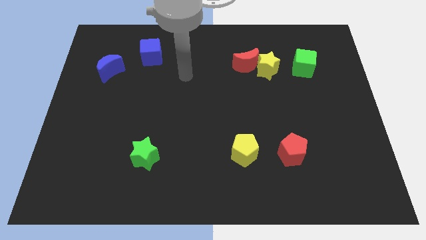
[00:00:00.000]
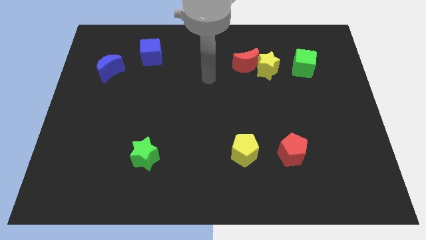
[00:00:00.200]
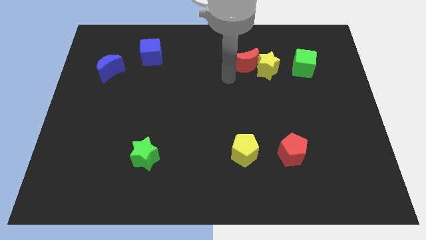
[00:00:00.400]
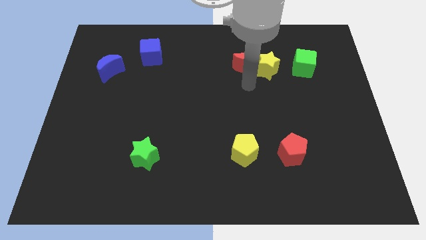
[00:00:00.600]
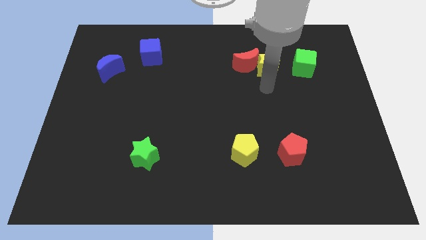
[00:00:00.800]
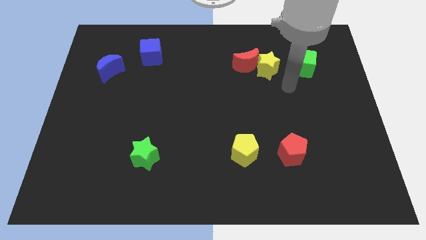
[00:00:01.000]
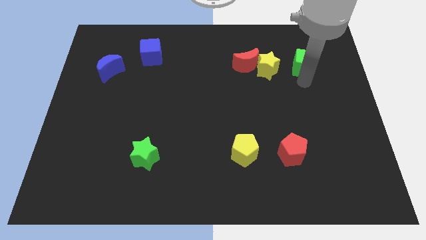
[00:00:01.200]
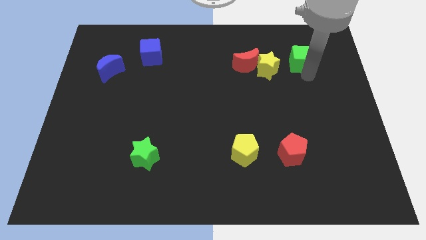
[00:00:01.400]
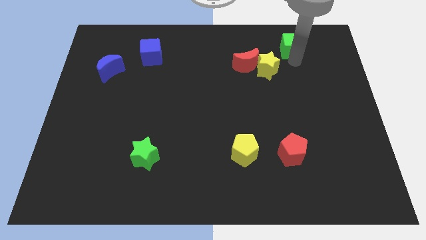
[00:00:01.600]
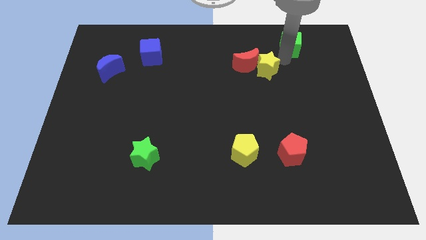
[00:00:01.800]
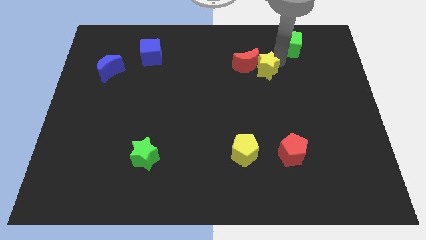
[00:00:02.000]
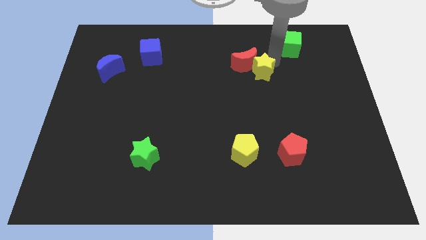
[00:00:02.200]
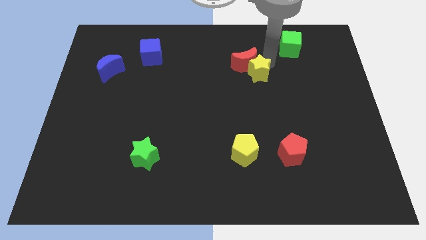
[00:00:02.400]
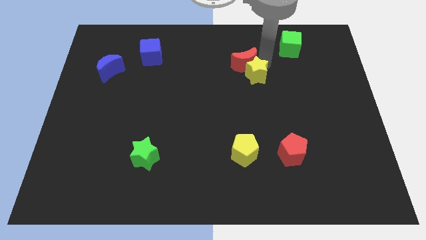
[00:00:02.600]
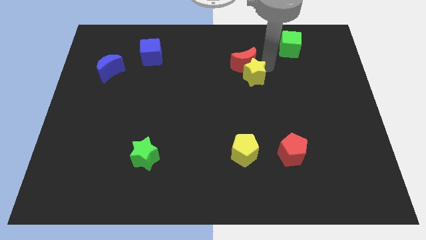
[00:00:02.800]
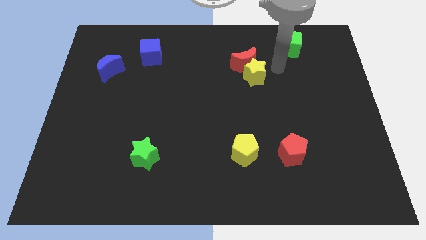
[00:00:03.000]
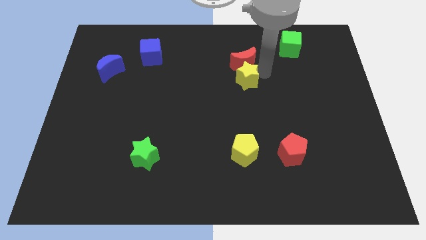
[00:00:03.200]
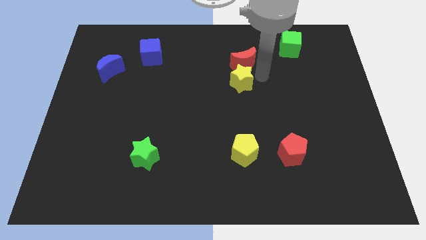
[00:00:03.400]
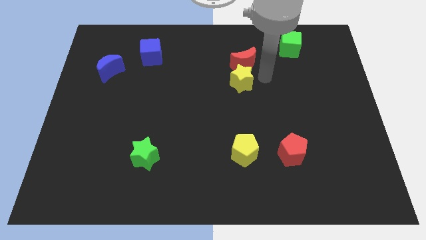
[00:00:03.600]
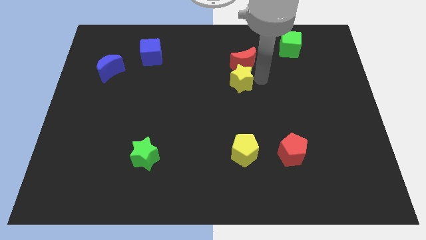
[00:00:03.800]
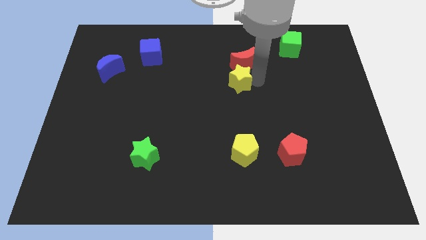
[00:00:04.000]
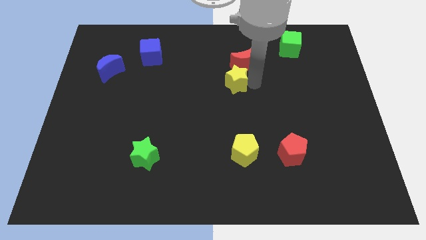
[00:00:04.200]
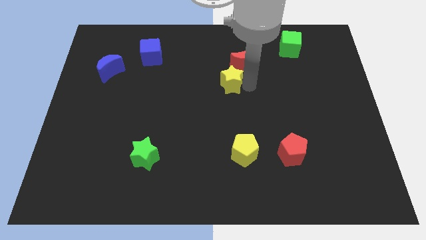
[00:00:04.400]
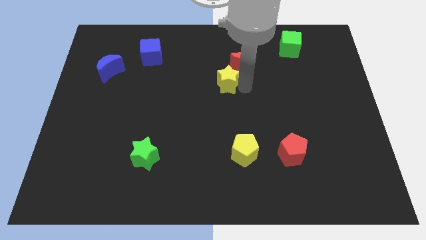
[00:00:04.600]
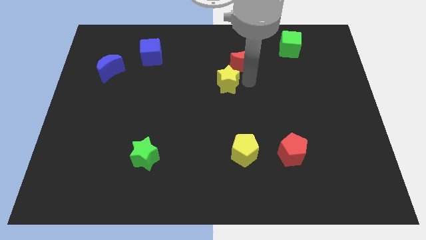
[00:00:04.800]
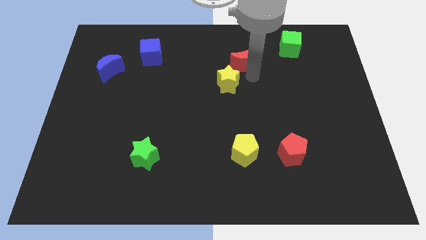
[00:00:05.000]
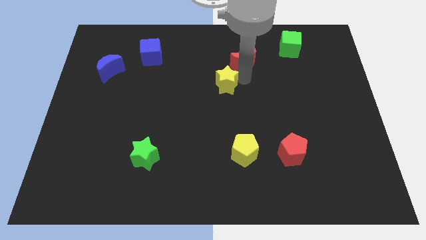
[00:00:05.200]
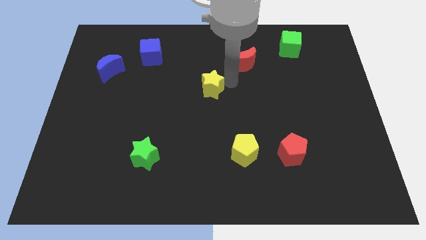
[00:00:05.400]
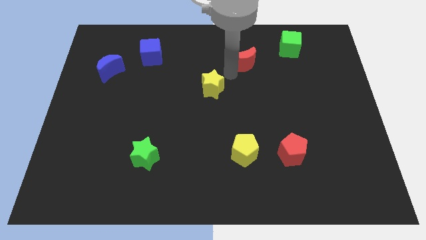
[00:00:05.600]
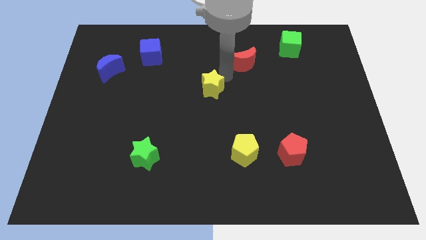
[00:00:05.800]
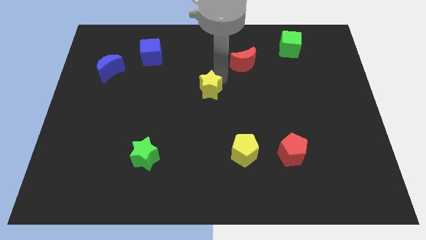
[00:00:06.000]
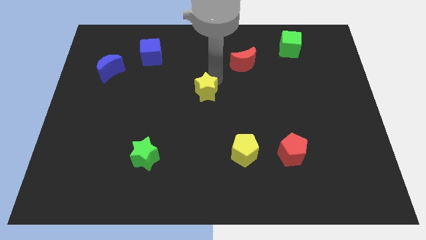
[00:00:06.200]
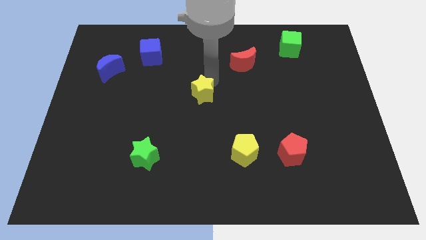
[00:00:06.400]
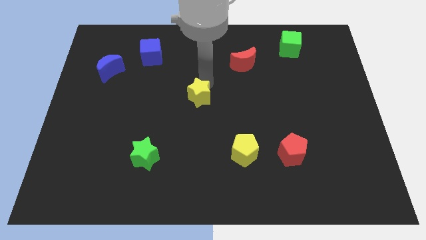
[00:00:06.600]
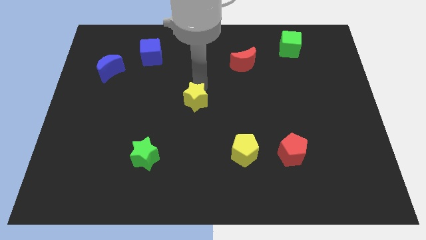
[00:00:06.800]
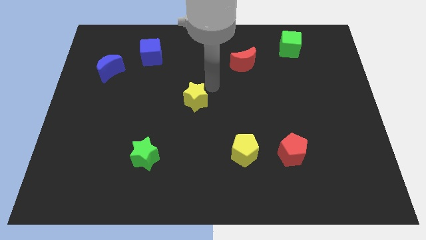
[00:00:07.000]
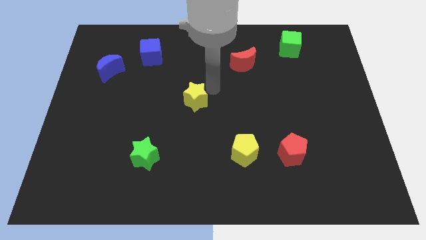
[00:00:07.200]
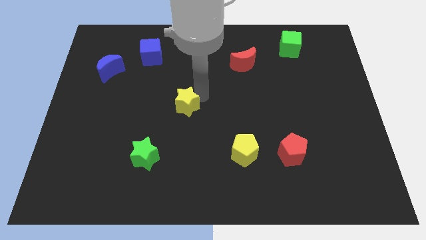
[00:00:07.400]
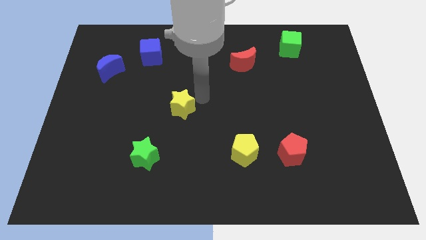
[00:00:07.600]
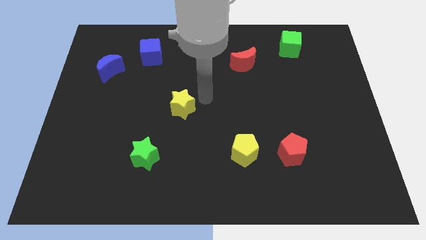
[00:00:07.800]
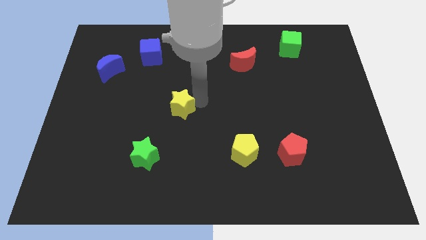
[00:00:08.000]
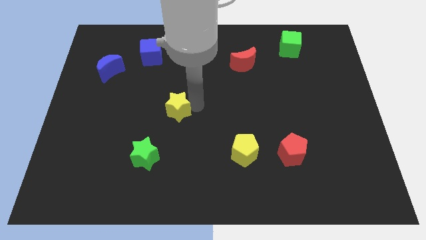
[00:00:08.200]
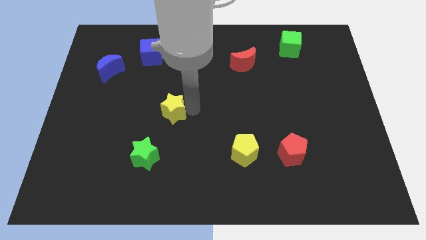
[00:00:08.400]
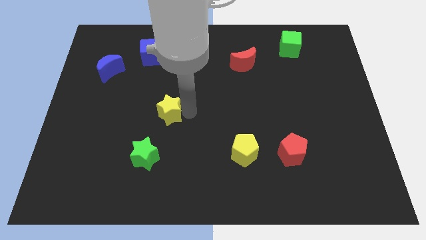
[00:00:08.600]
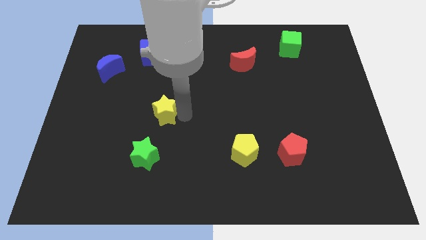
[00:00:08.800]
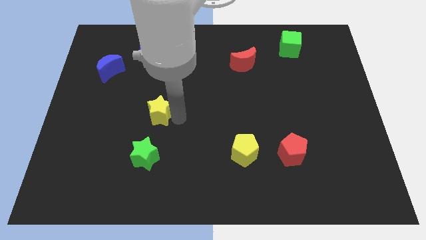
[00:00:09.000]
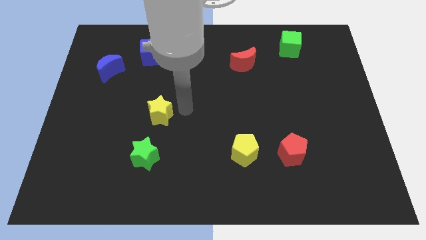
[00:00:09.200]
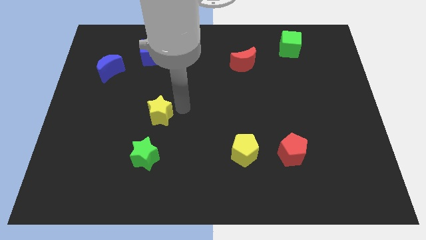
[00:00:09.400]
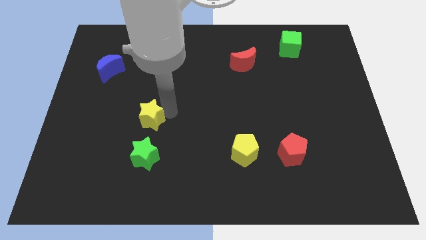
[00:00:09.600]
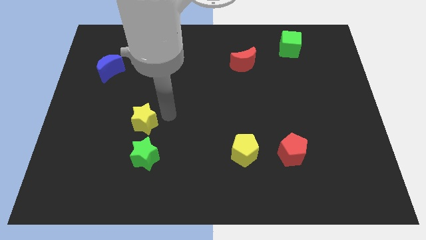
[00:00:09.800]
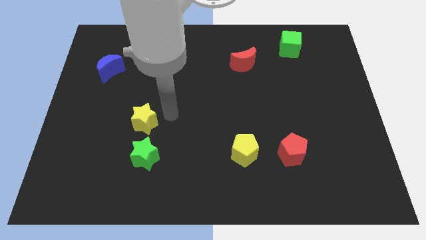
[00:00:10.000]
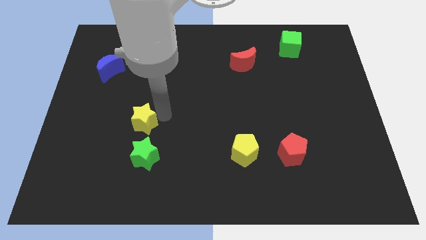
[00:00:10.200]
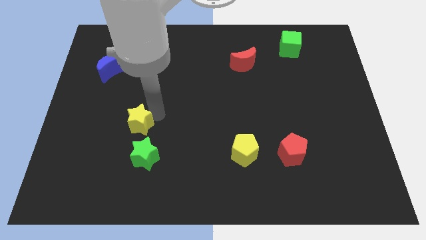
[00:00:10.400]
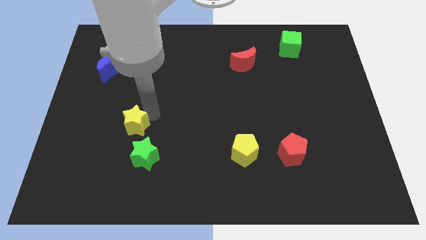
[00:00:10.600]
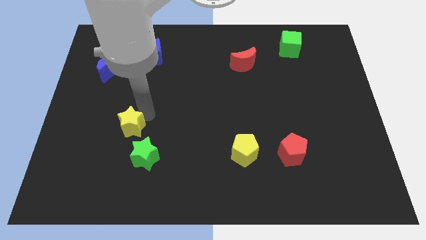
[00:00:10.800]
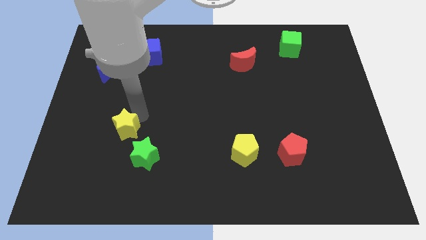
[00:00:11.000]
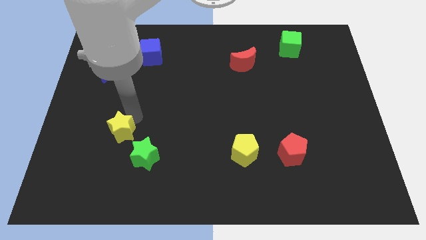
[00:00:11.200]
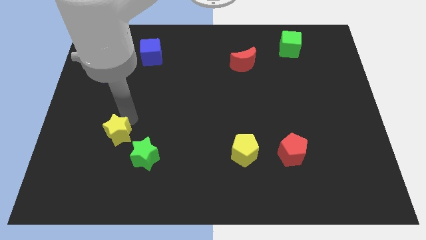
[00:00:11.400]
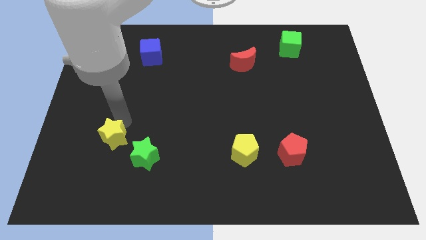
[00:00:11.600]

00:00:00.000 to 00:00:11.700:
slide the yellow star just left of the green star

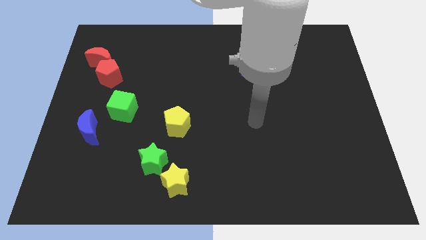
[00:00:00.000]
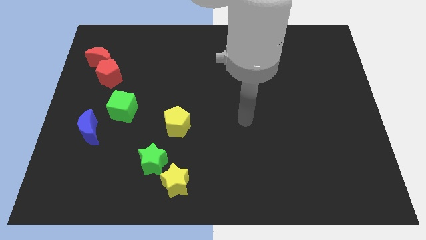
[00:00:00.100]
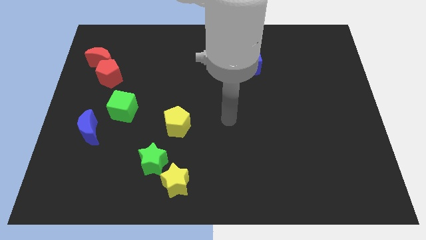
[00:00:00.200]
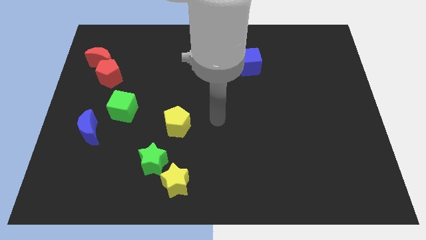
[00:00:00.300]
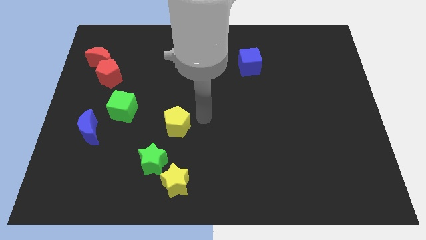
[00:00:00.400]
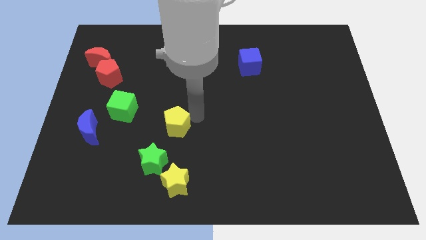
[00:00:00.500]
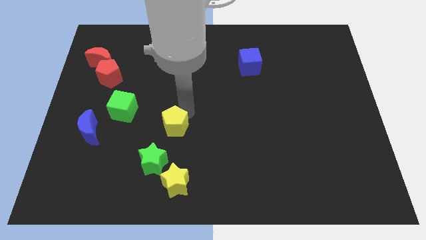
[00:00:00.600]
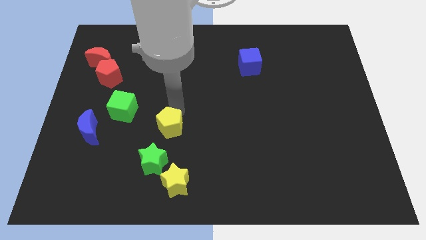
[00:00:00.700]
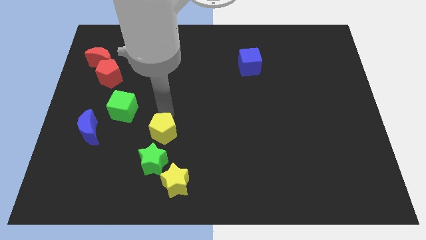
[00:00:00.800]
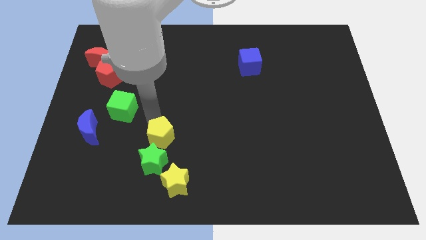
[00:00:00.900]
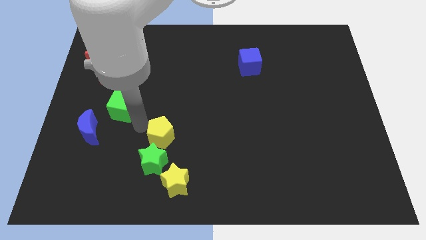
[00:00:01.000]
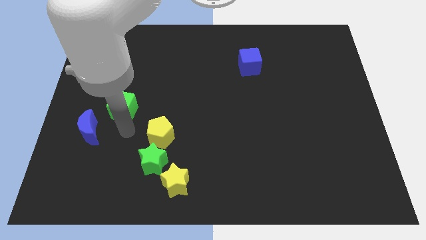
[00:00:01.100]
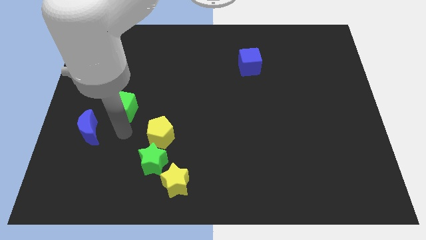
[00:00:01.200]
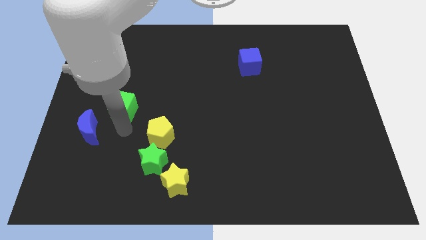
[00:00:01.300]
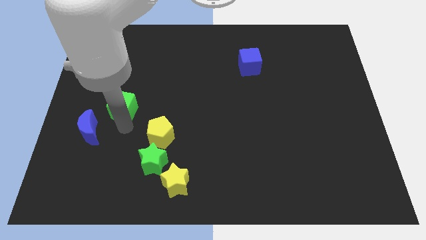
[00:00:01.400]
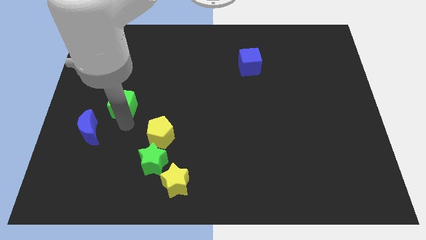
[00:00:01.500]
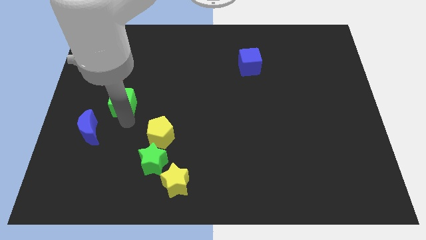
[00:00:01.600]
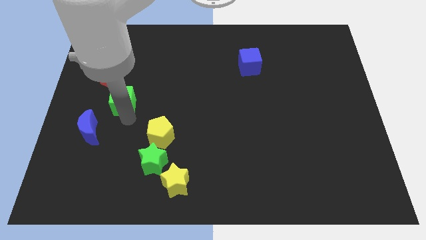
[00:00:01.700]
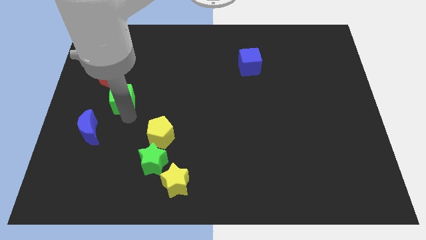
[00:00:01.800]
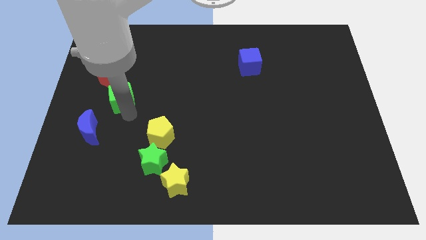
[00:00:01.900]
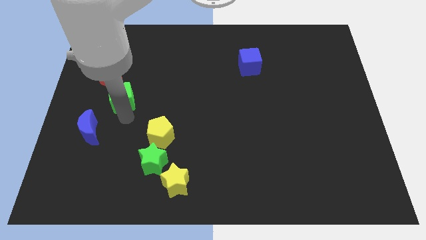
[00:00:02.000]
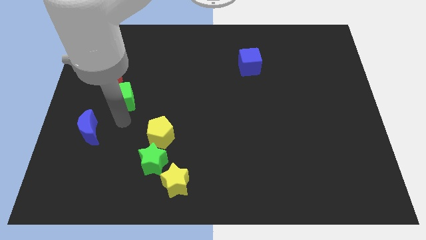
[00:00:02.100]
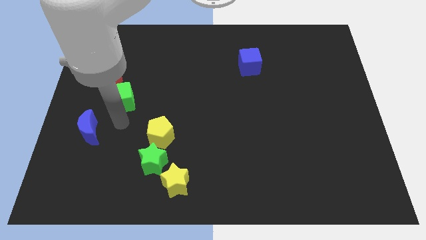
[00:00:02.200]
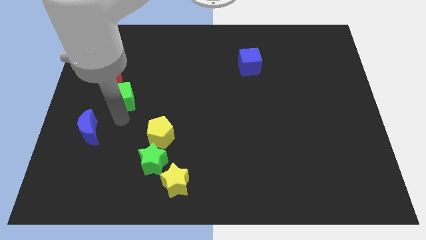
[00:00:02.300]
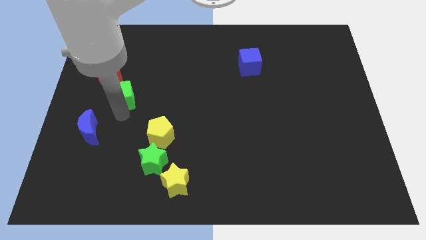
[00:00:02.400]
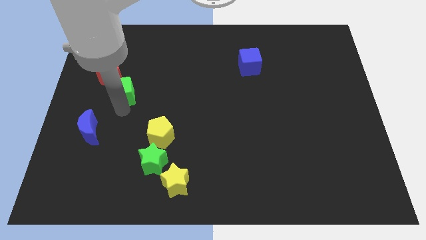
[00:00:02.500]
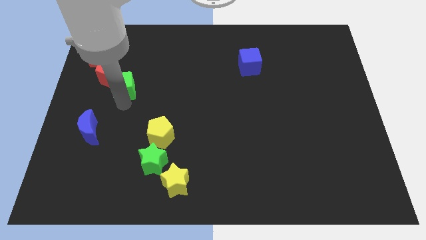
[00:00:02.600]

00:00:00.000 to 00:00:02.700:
put the green cube to the bottom right of the red moon
